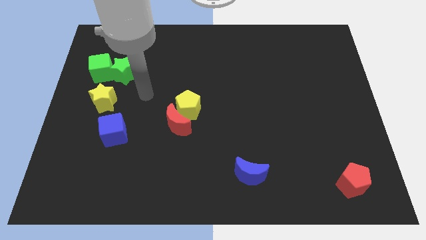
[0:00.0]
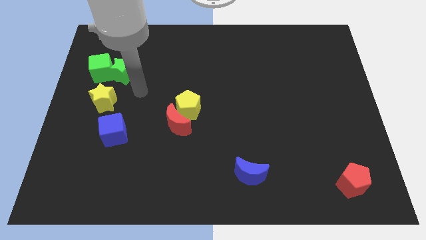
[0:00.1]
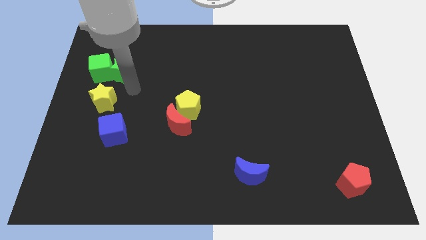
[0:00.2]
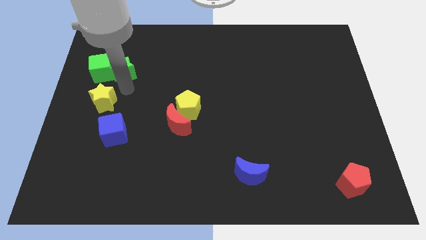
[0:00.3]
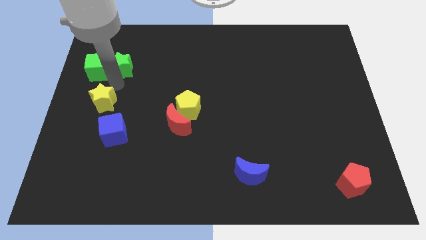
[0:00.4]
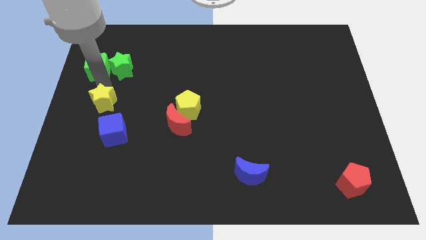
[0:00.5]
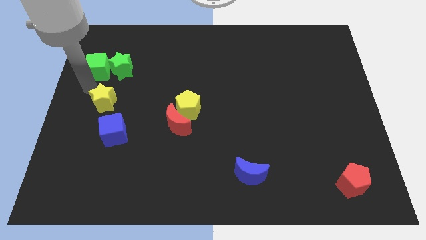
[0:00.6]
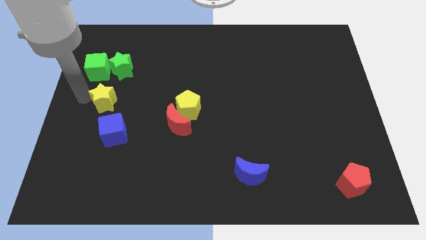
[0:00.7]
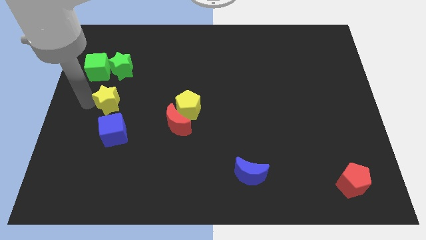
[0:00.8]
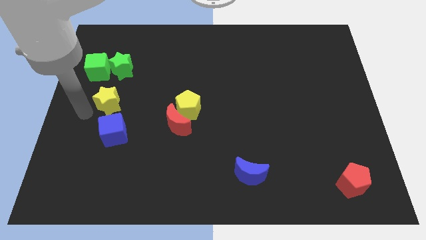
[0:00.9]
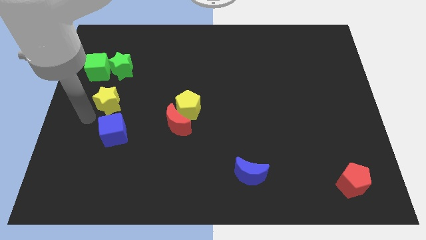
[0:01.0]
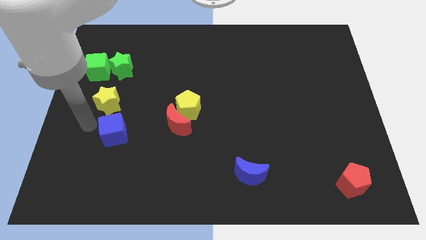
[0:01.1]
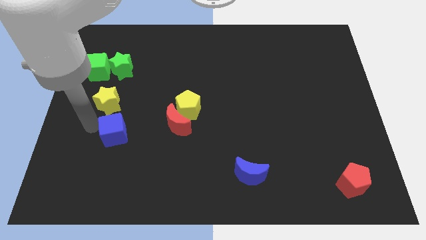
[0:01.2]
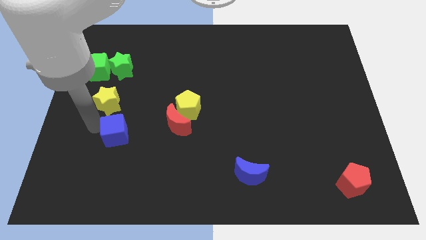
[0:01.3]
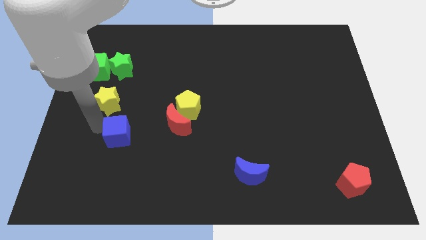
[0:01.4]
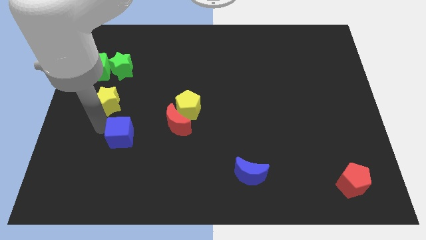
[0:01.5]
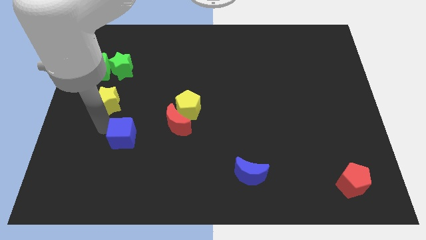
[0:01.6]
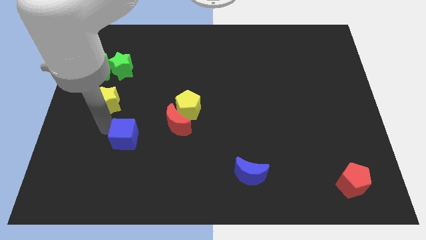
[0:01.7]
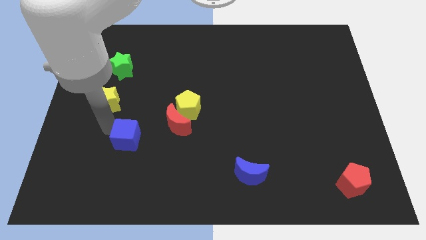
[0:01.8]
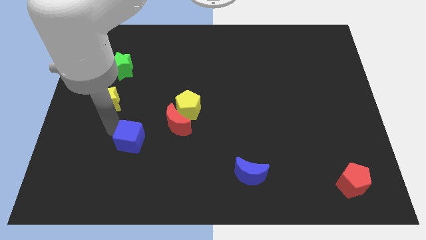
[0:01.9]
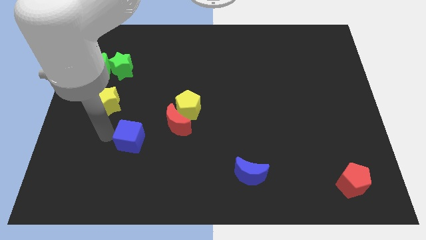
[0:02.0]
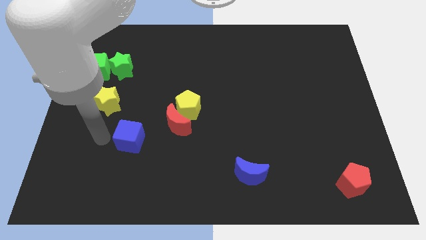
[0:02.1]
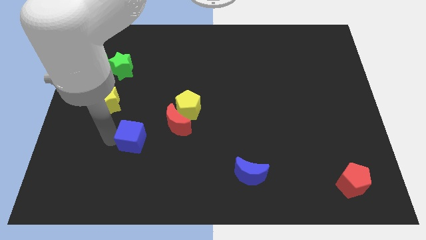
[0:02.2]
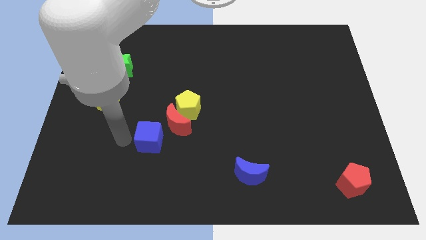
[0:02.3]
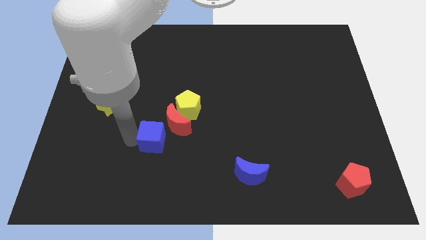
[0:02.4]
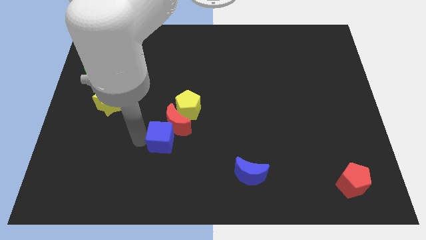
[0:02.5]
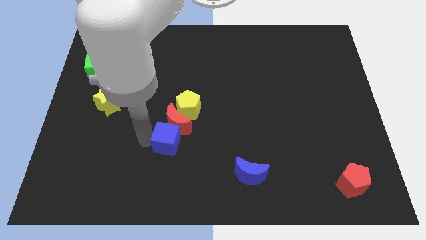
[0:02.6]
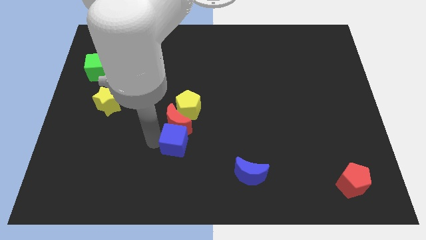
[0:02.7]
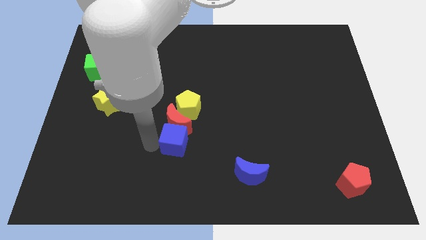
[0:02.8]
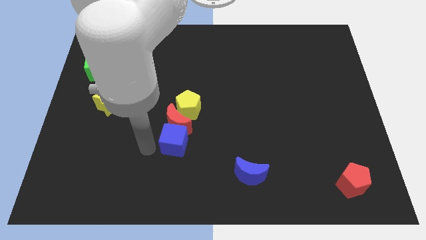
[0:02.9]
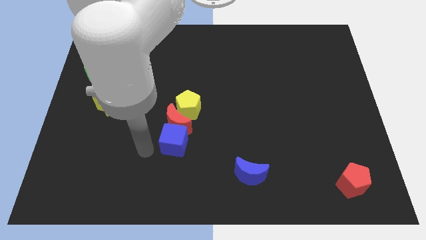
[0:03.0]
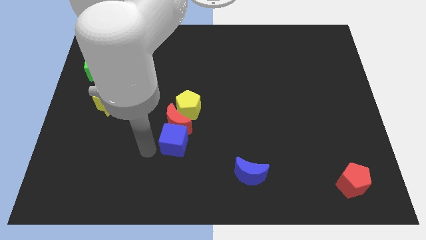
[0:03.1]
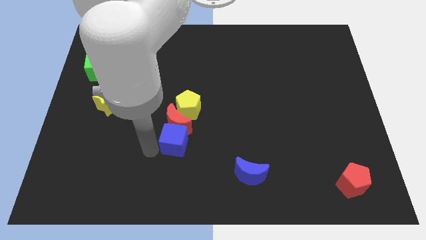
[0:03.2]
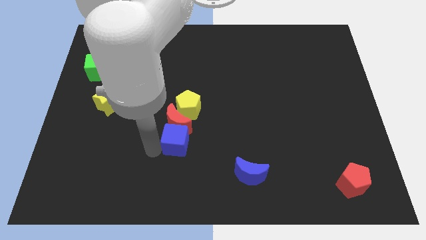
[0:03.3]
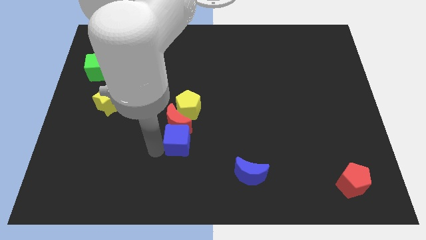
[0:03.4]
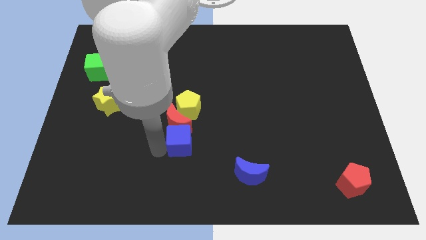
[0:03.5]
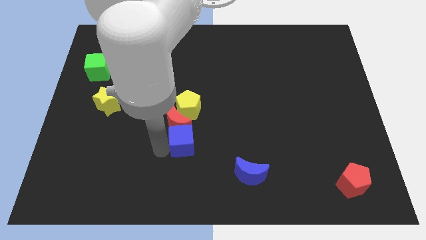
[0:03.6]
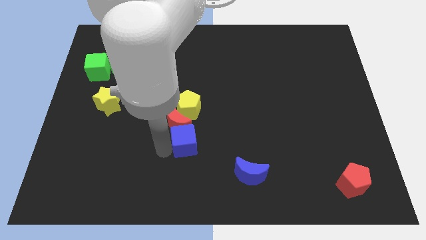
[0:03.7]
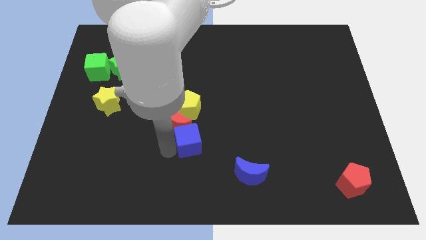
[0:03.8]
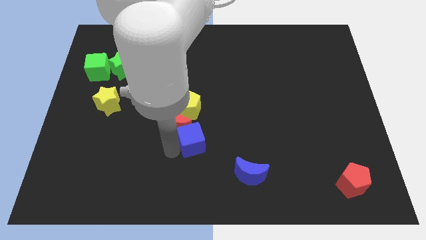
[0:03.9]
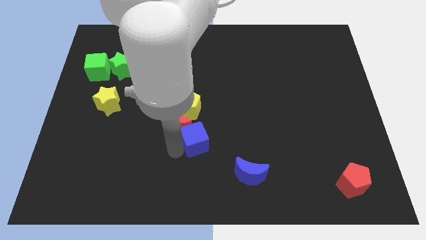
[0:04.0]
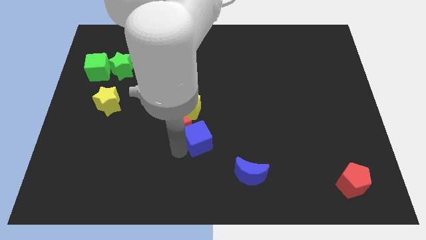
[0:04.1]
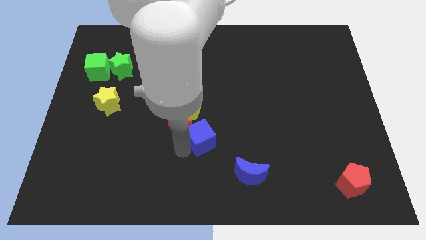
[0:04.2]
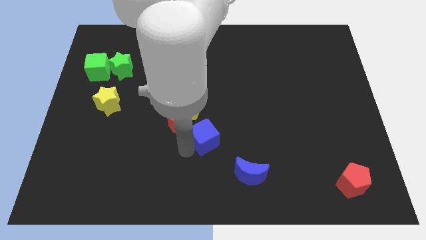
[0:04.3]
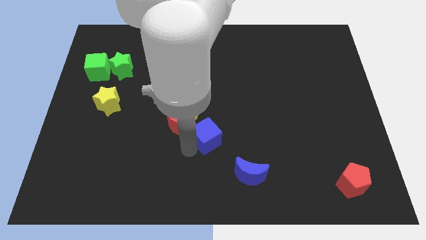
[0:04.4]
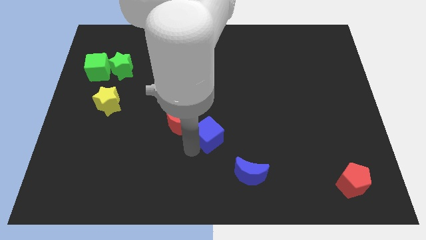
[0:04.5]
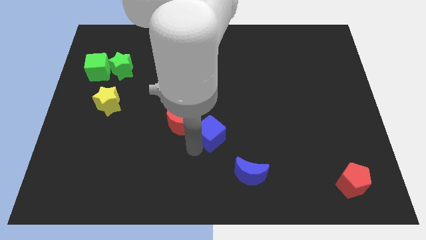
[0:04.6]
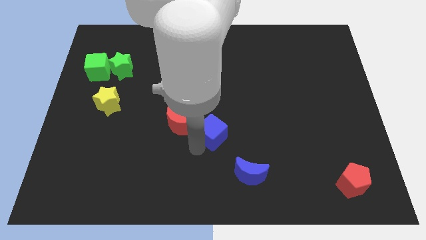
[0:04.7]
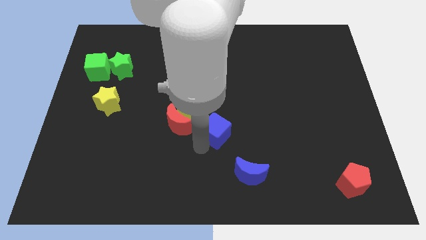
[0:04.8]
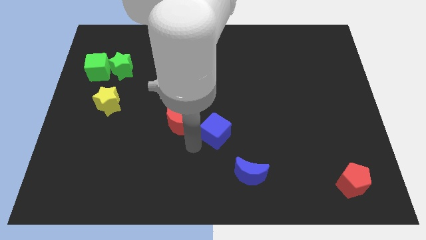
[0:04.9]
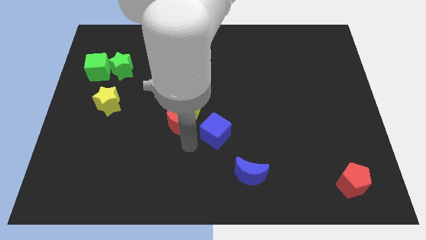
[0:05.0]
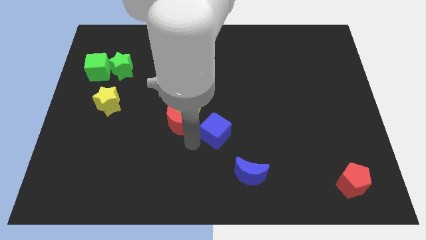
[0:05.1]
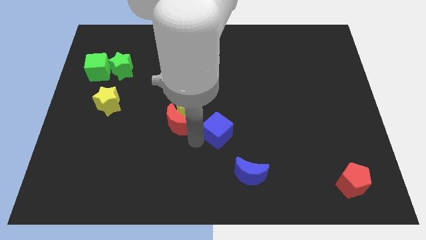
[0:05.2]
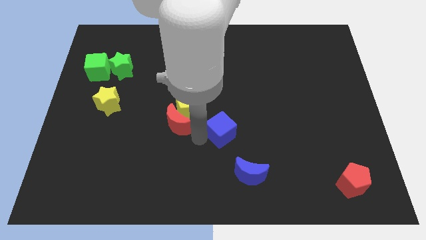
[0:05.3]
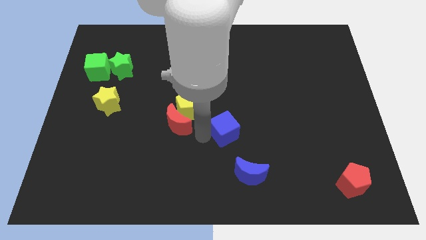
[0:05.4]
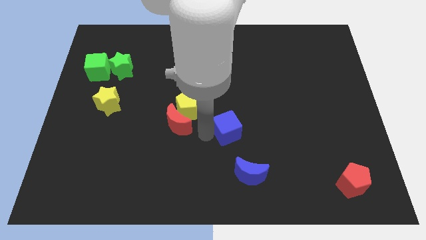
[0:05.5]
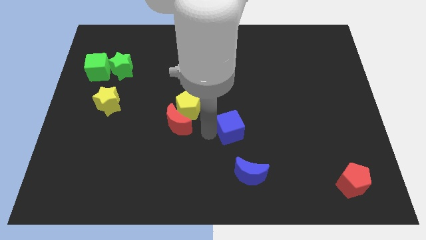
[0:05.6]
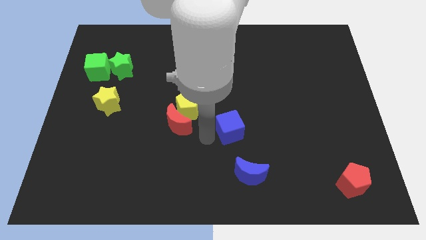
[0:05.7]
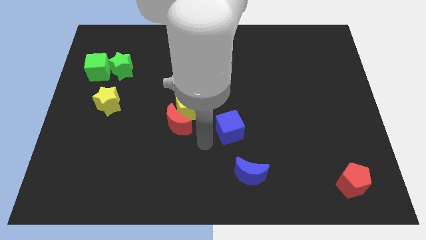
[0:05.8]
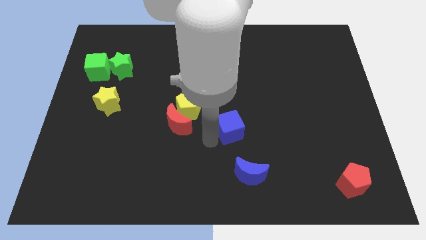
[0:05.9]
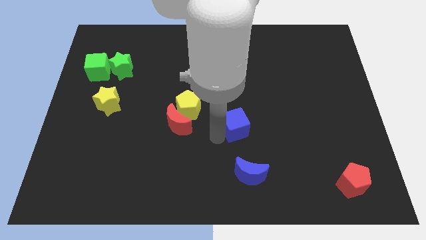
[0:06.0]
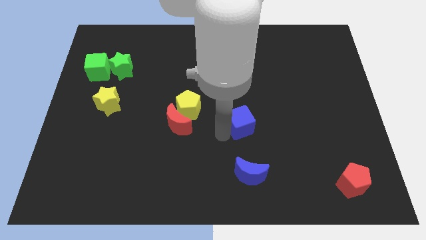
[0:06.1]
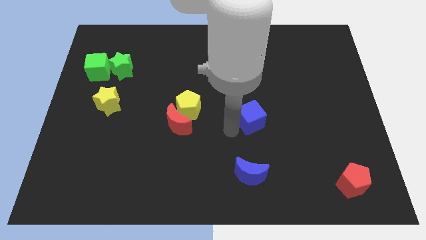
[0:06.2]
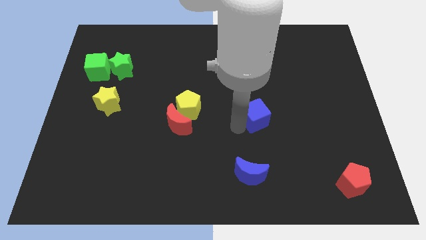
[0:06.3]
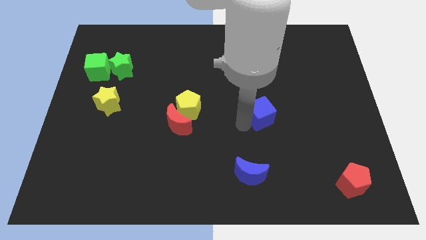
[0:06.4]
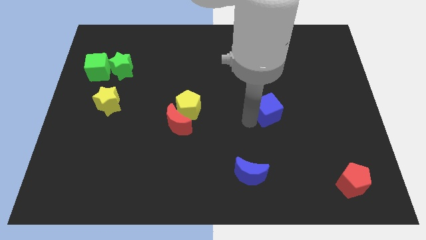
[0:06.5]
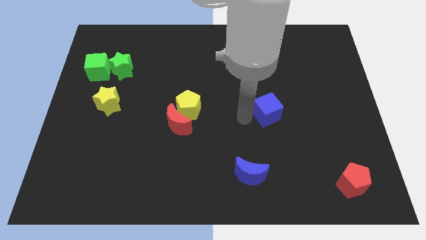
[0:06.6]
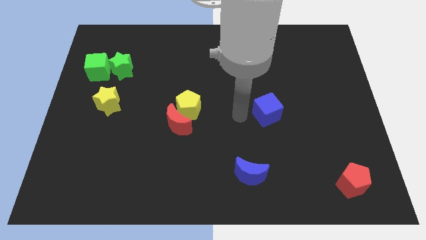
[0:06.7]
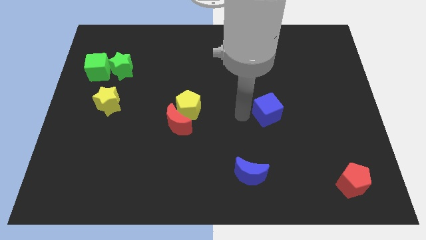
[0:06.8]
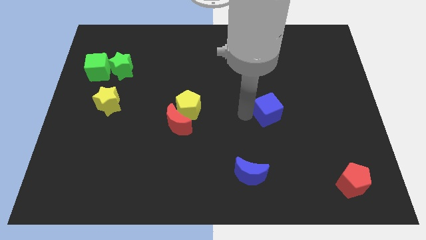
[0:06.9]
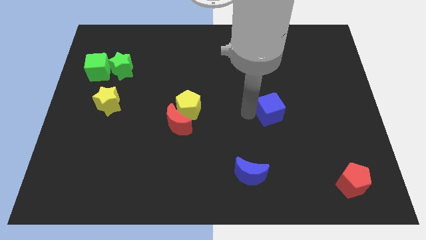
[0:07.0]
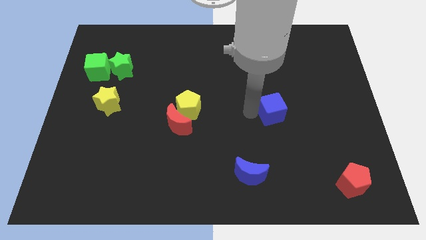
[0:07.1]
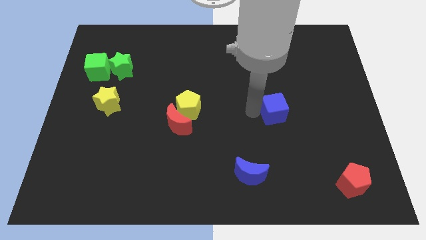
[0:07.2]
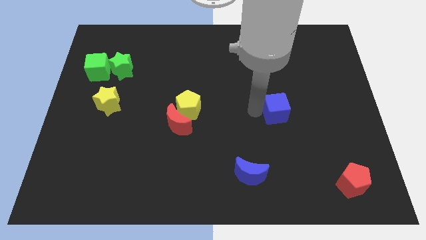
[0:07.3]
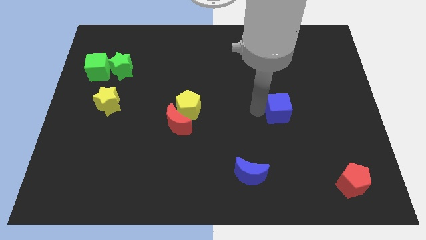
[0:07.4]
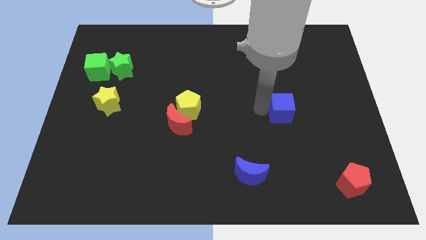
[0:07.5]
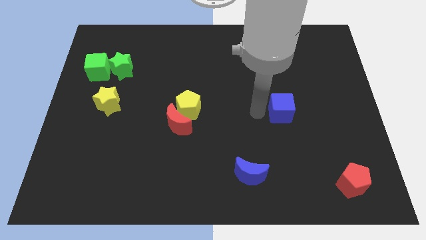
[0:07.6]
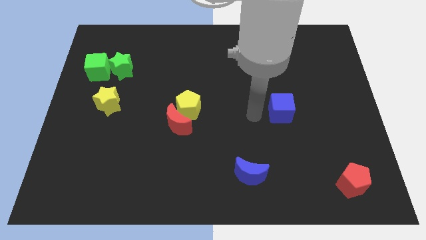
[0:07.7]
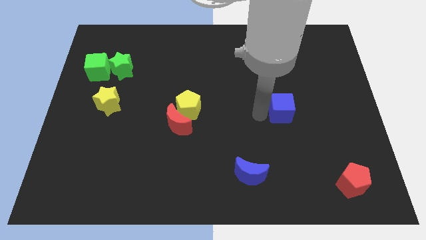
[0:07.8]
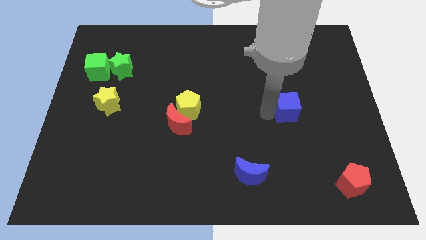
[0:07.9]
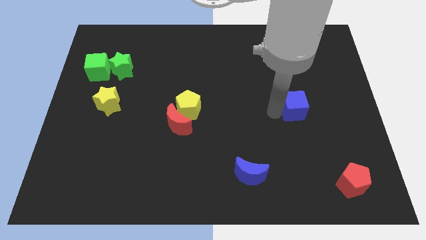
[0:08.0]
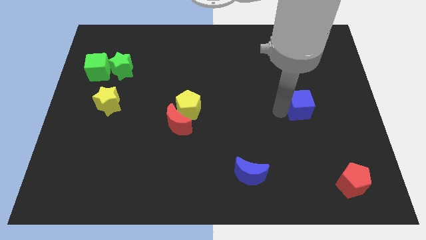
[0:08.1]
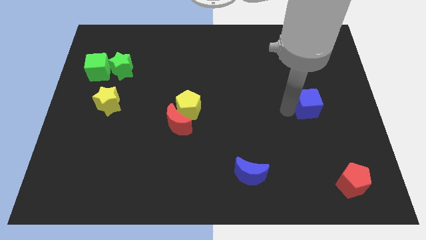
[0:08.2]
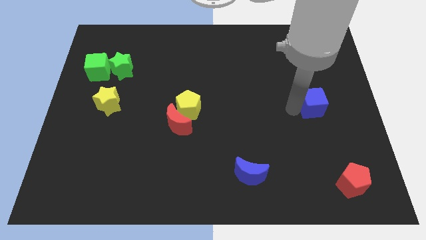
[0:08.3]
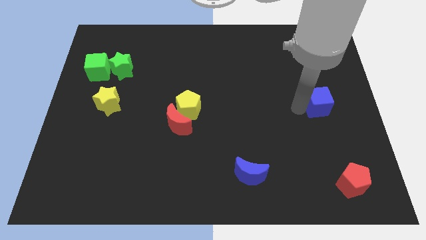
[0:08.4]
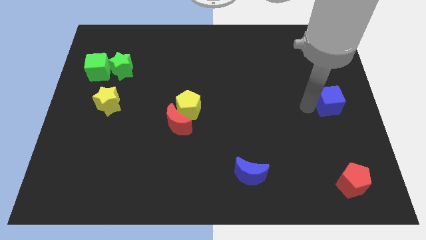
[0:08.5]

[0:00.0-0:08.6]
slide the blue cube to the right side
